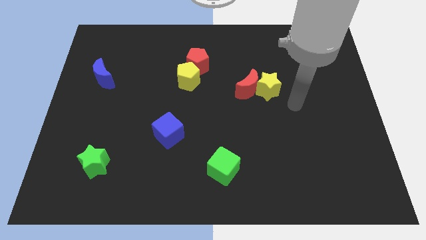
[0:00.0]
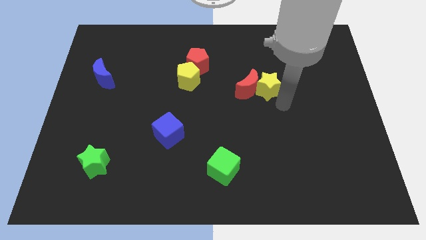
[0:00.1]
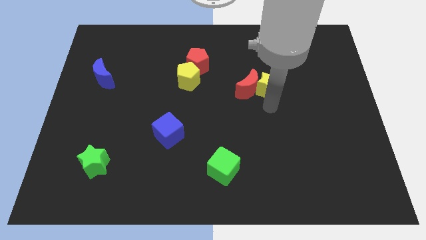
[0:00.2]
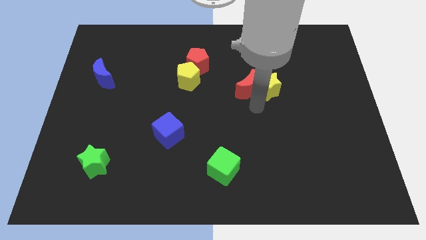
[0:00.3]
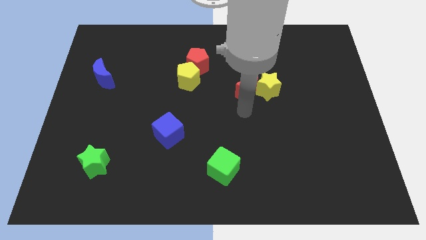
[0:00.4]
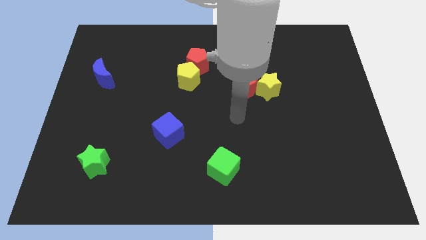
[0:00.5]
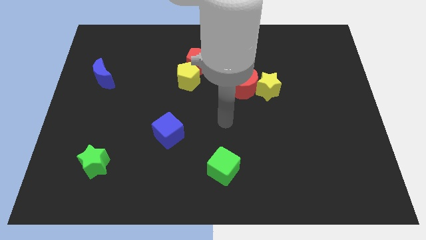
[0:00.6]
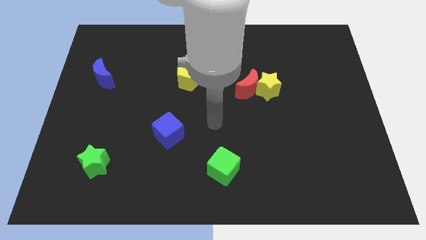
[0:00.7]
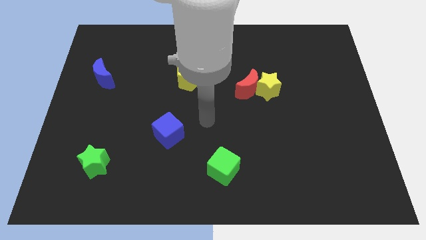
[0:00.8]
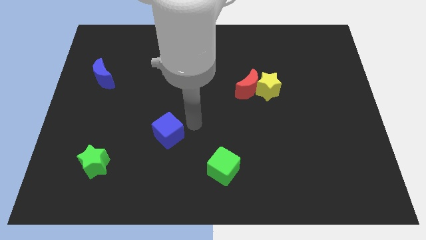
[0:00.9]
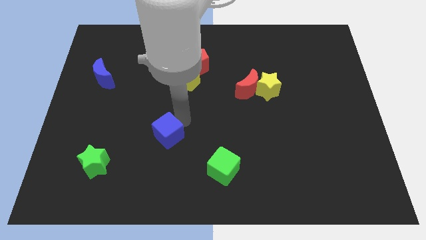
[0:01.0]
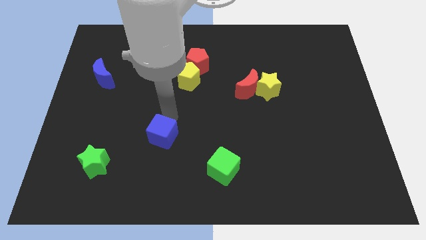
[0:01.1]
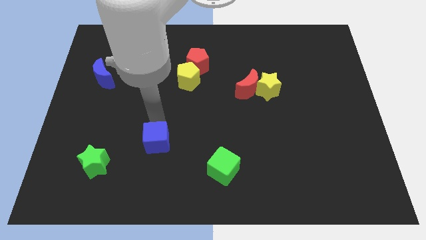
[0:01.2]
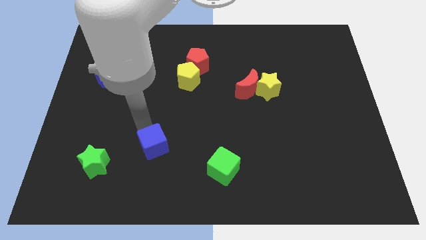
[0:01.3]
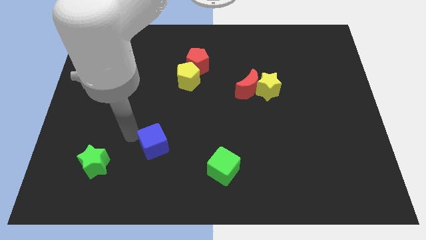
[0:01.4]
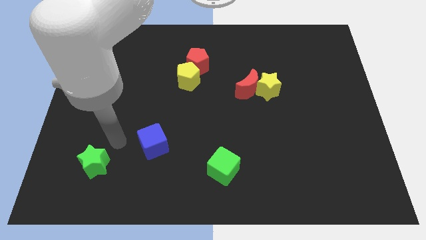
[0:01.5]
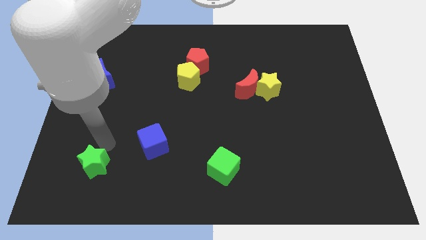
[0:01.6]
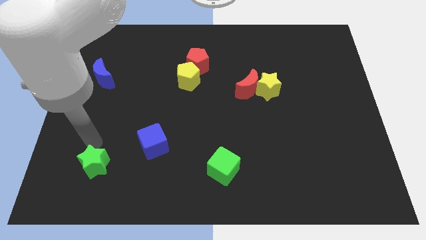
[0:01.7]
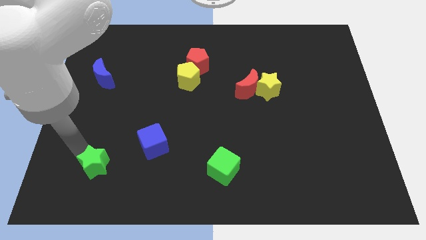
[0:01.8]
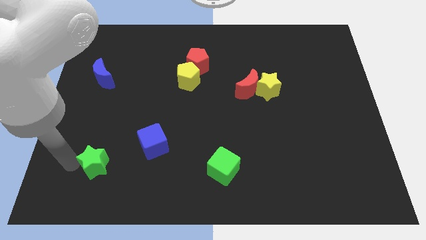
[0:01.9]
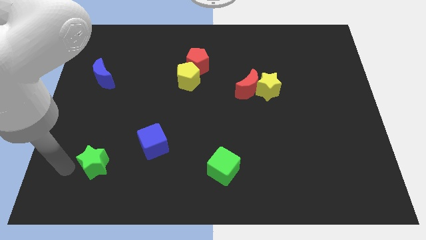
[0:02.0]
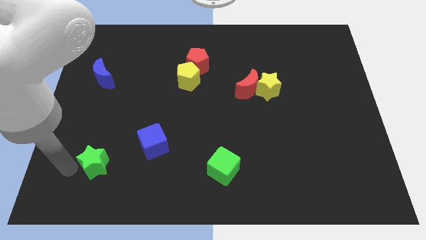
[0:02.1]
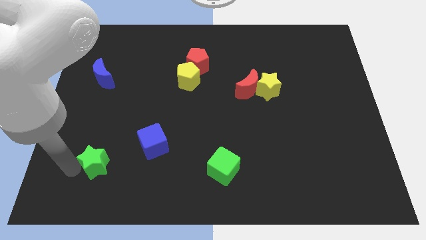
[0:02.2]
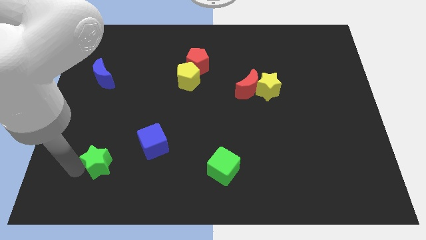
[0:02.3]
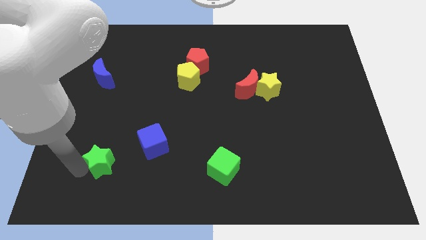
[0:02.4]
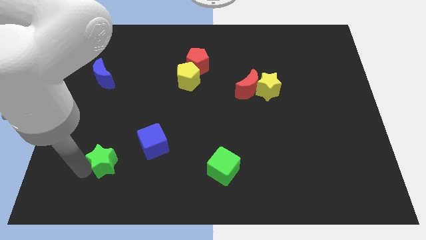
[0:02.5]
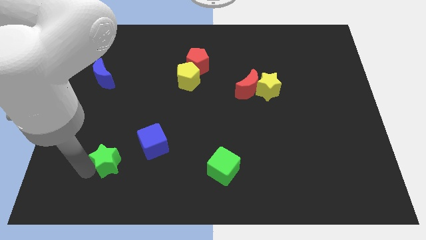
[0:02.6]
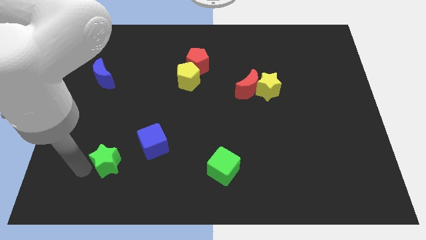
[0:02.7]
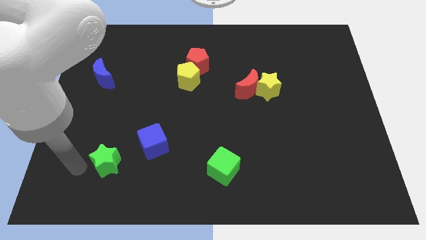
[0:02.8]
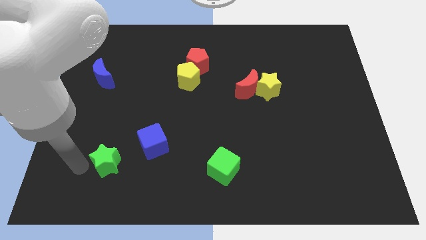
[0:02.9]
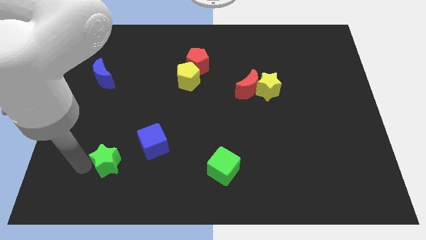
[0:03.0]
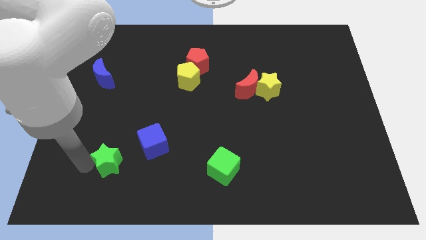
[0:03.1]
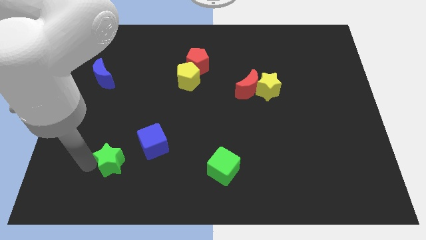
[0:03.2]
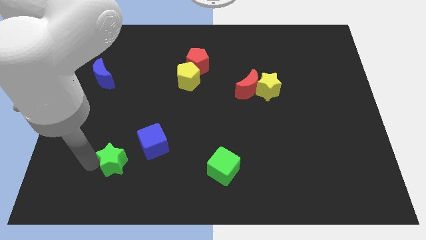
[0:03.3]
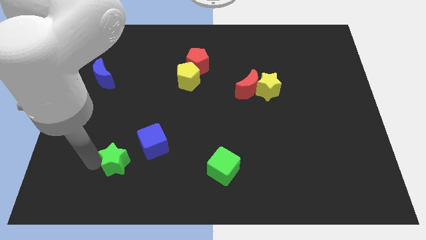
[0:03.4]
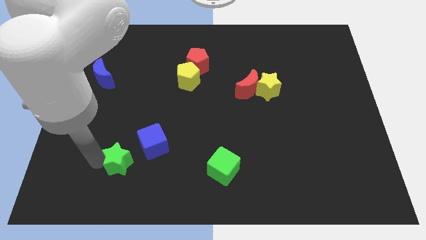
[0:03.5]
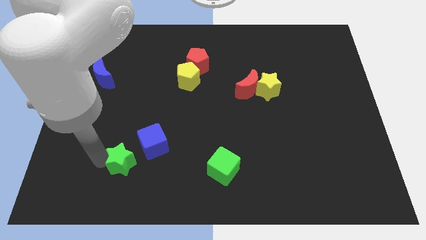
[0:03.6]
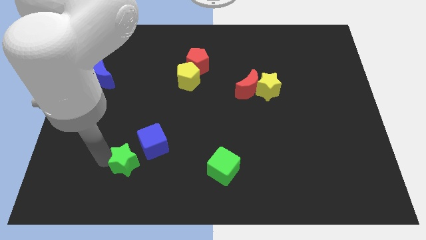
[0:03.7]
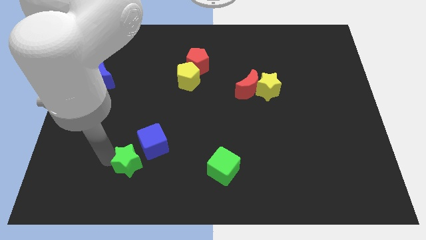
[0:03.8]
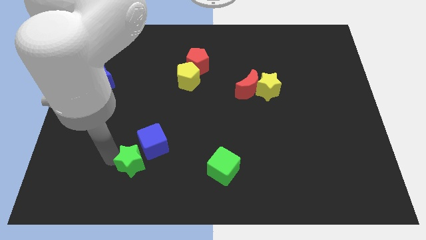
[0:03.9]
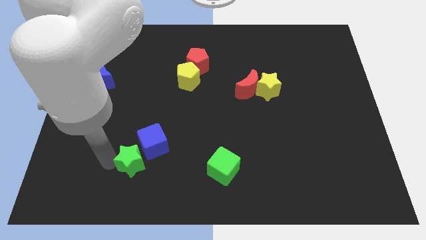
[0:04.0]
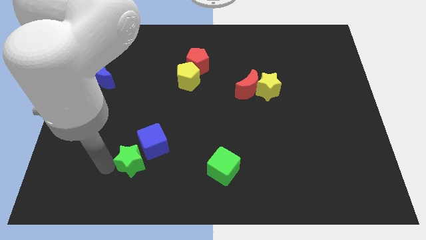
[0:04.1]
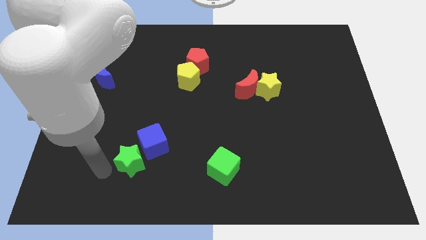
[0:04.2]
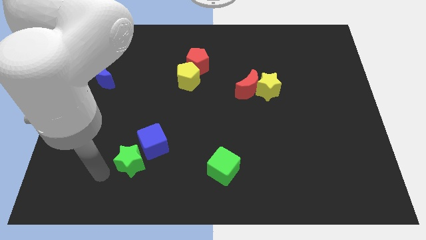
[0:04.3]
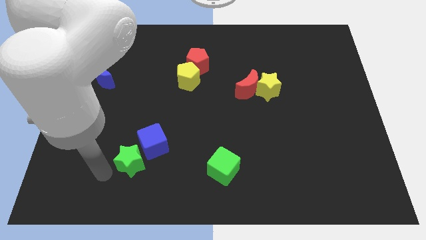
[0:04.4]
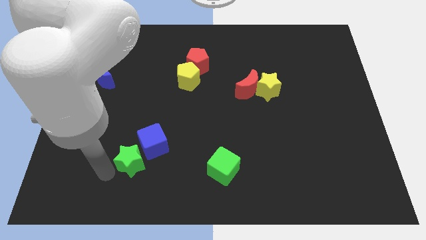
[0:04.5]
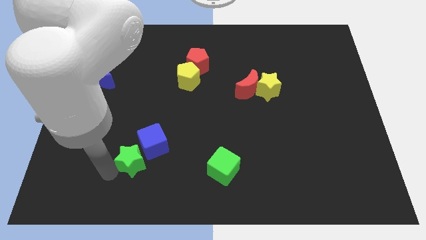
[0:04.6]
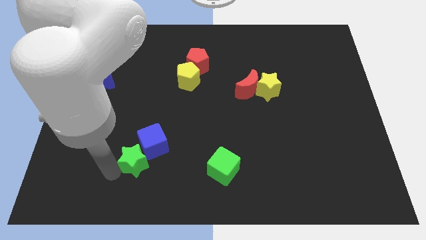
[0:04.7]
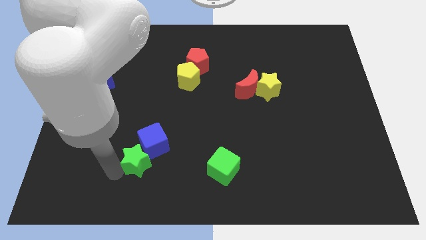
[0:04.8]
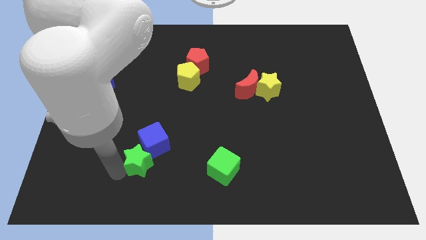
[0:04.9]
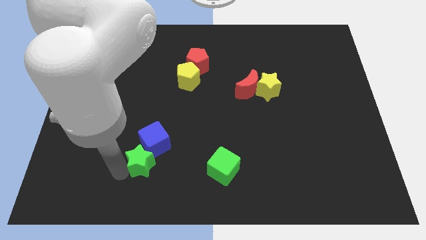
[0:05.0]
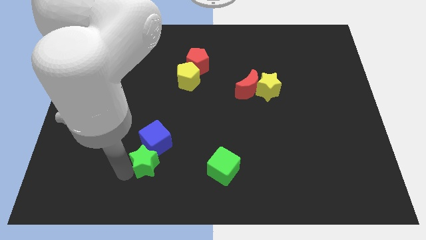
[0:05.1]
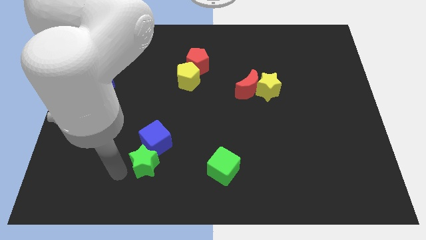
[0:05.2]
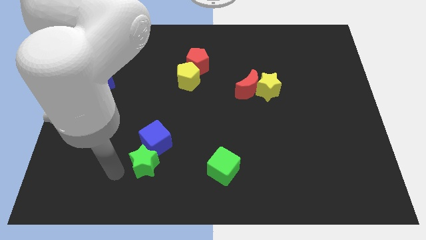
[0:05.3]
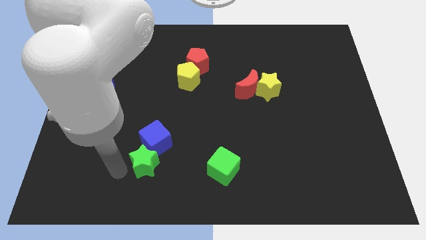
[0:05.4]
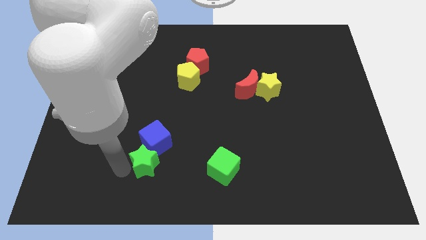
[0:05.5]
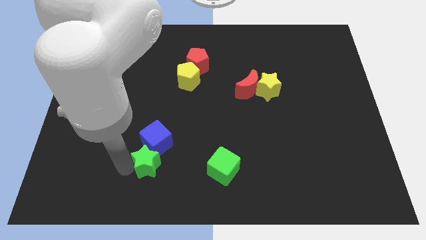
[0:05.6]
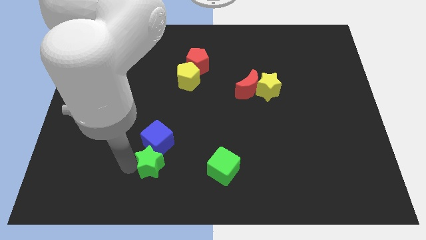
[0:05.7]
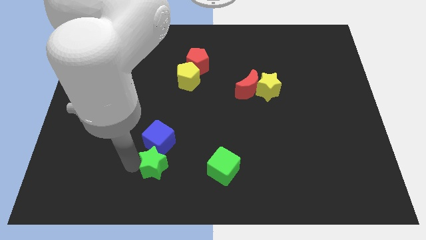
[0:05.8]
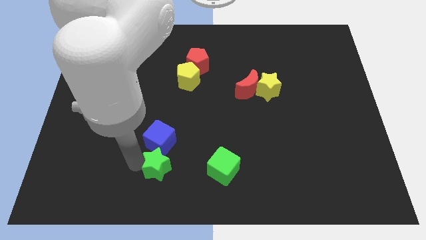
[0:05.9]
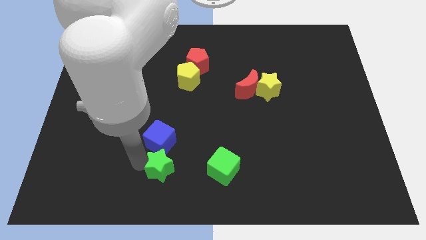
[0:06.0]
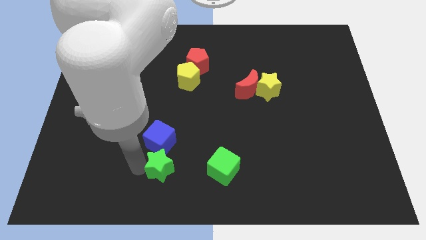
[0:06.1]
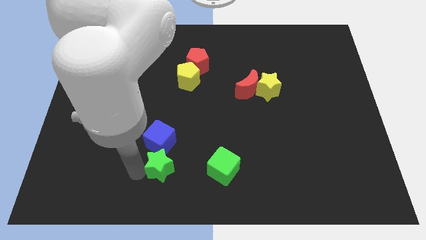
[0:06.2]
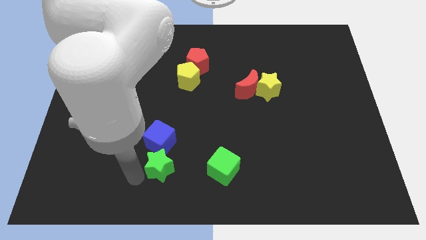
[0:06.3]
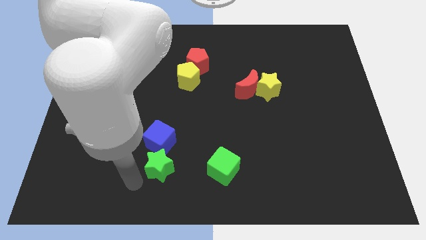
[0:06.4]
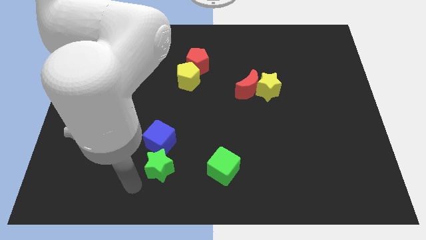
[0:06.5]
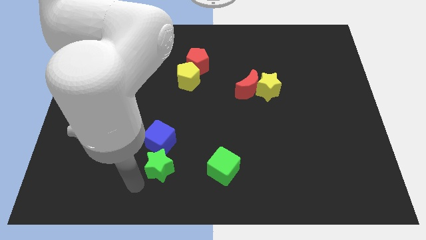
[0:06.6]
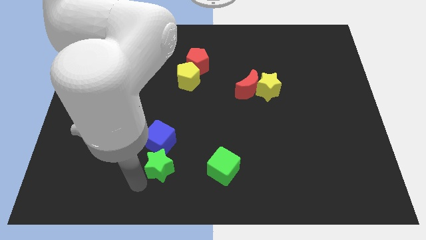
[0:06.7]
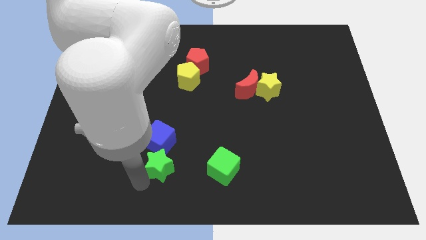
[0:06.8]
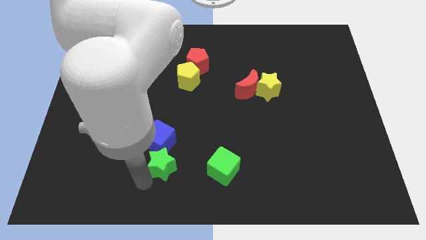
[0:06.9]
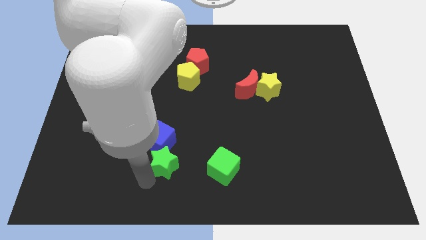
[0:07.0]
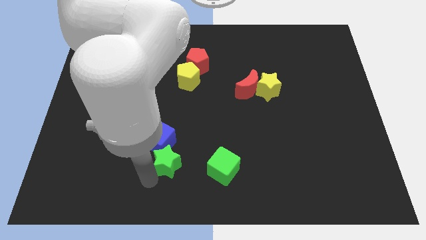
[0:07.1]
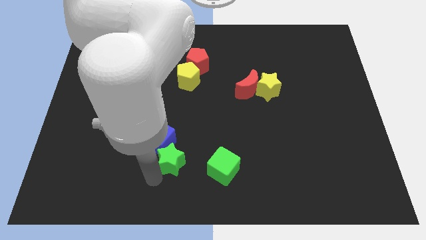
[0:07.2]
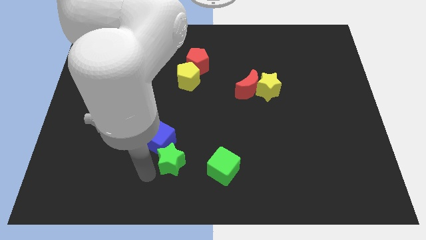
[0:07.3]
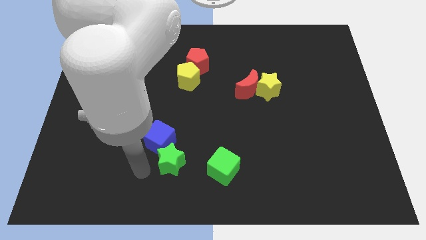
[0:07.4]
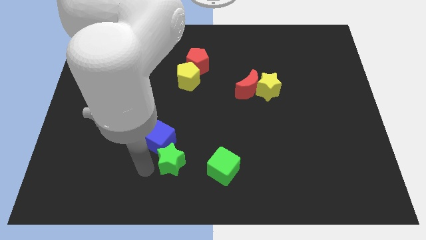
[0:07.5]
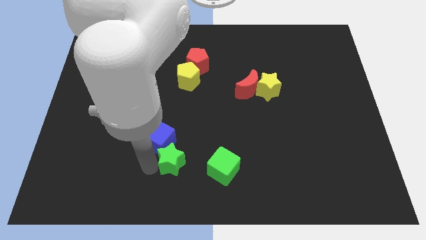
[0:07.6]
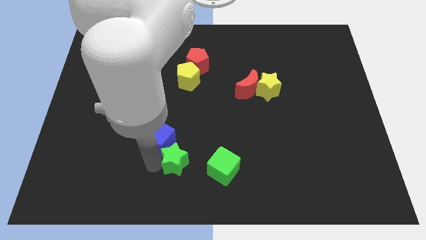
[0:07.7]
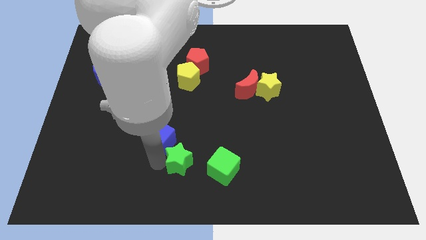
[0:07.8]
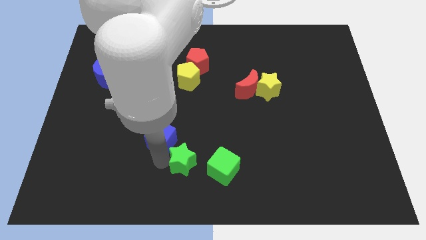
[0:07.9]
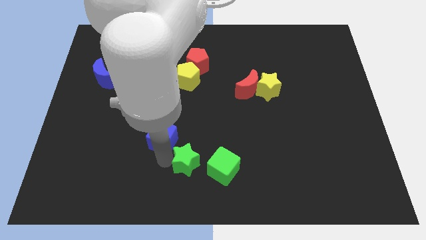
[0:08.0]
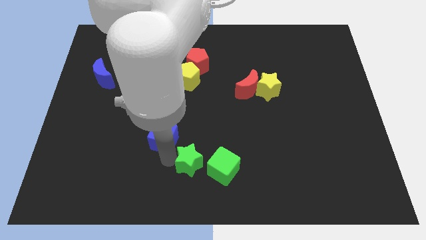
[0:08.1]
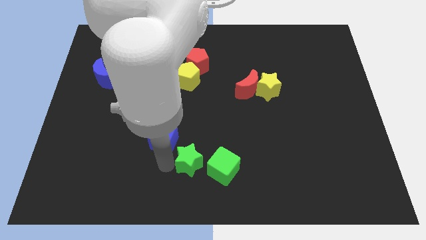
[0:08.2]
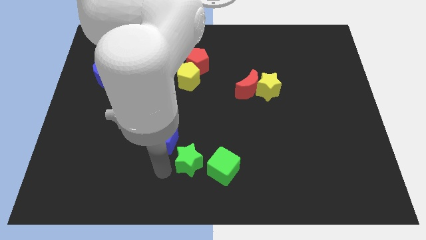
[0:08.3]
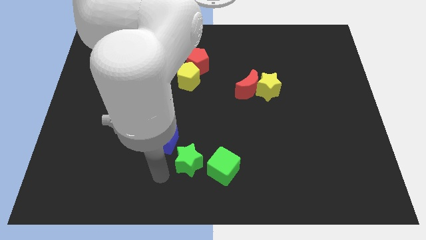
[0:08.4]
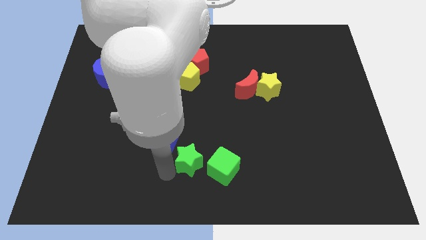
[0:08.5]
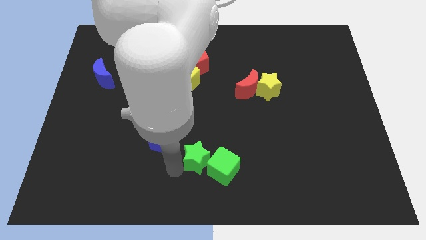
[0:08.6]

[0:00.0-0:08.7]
slide the green star to the right
